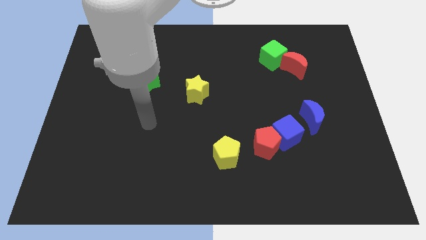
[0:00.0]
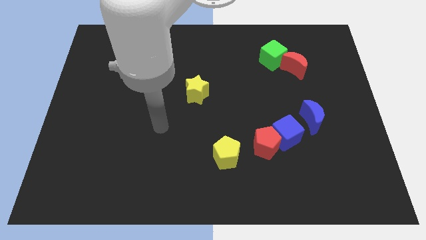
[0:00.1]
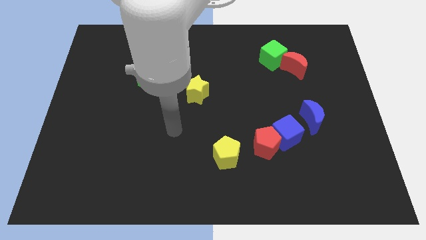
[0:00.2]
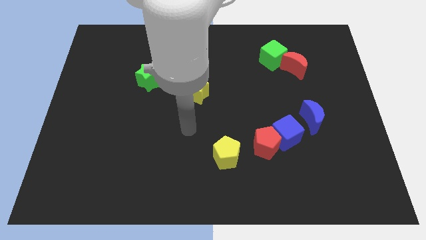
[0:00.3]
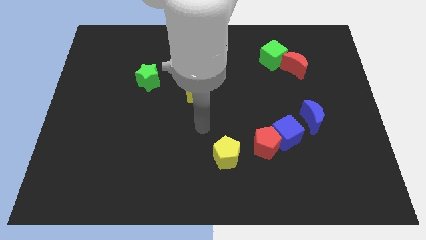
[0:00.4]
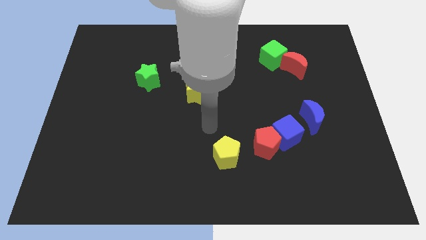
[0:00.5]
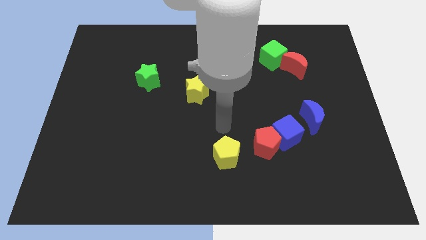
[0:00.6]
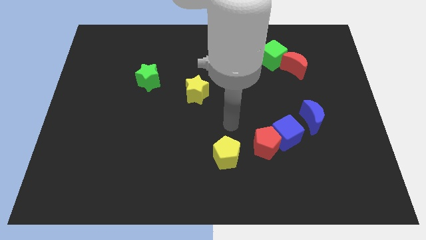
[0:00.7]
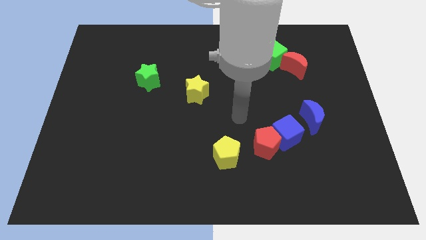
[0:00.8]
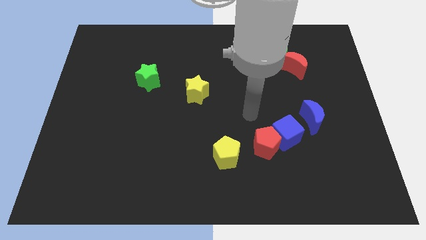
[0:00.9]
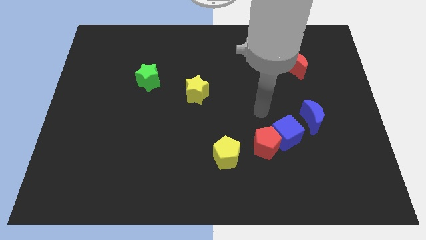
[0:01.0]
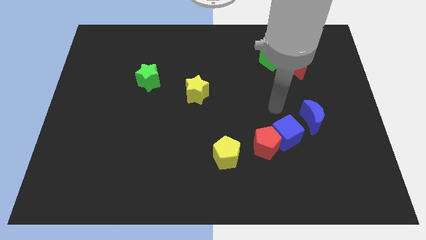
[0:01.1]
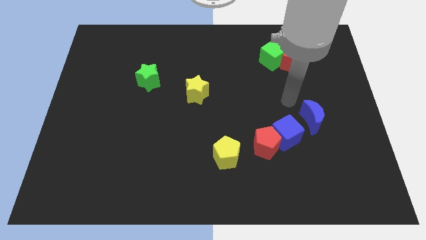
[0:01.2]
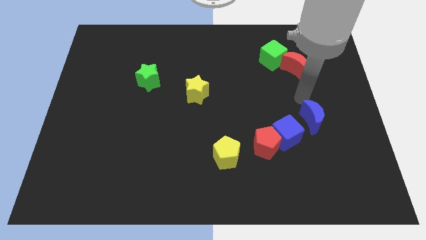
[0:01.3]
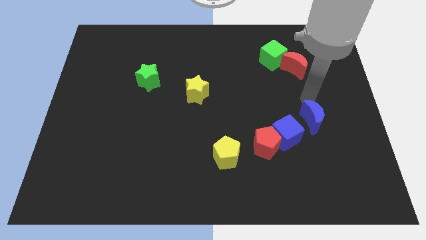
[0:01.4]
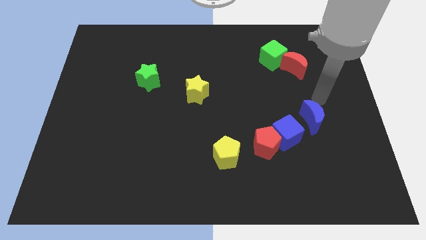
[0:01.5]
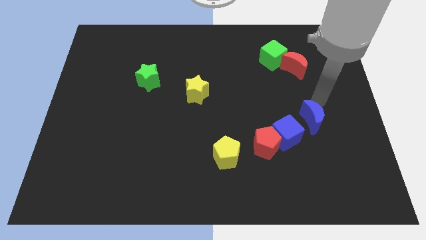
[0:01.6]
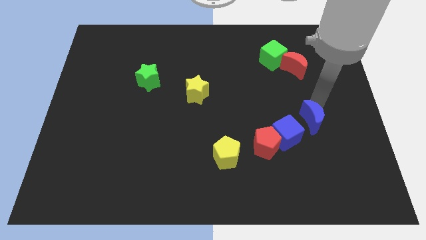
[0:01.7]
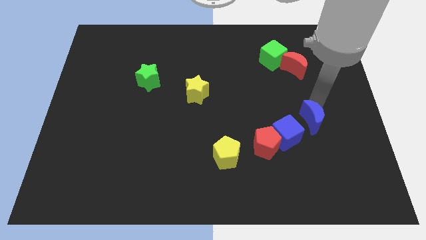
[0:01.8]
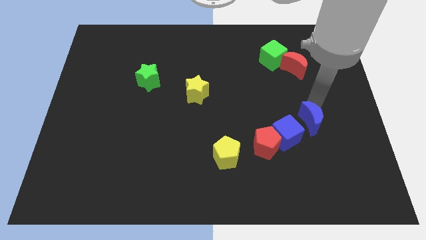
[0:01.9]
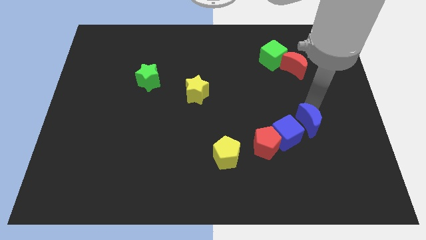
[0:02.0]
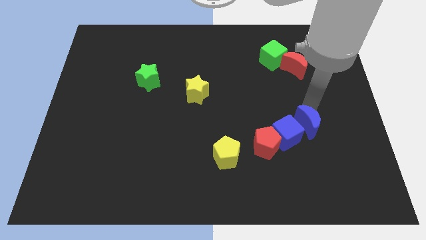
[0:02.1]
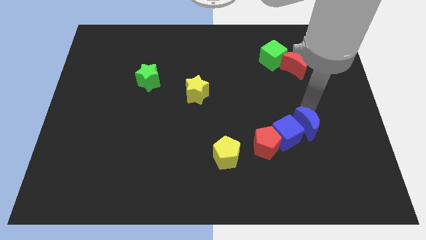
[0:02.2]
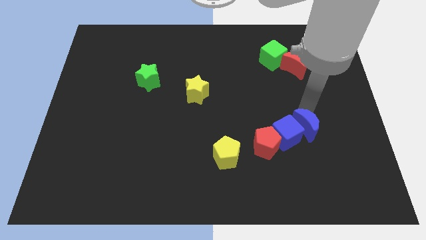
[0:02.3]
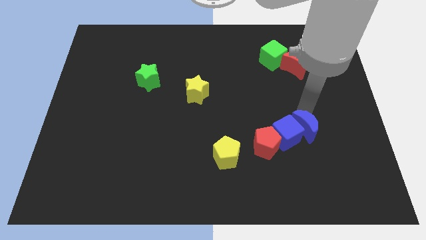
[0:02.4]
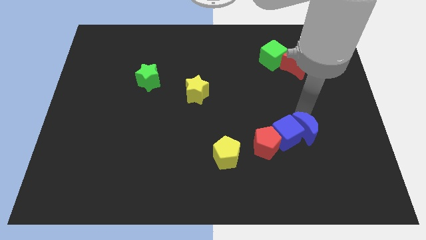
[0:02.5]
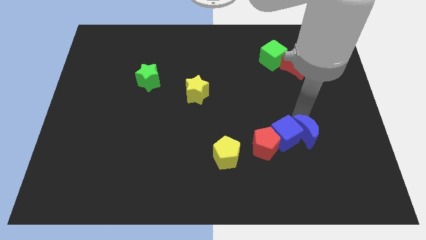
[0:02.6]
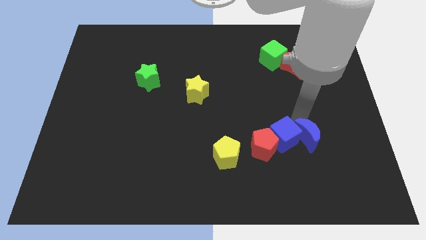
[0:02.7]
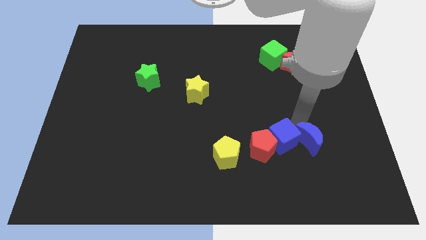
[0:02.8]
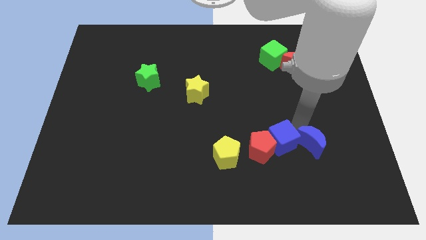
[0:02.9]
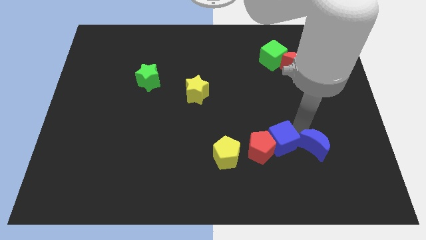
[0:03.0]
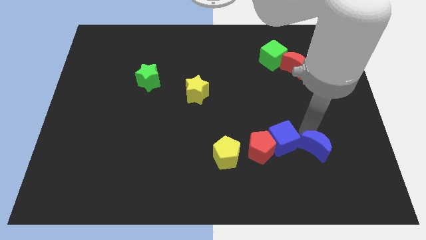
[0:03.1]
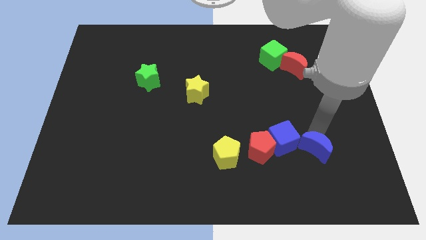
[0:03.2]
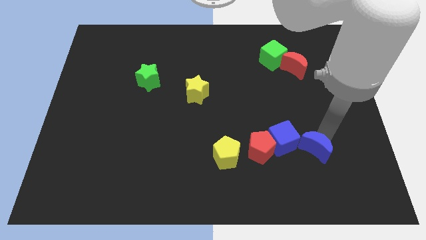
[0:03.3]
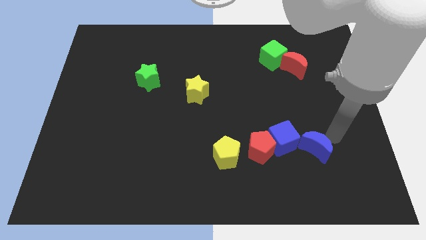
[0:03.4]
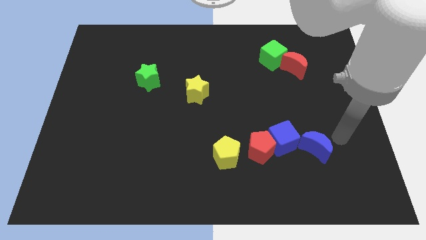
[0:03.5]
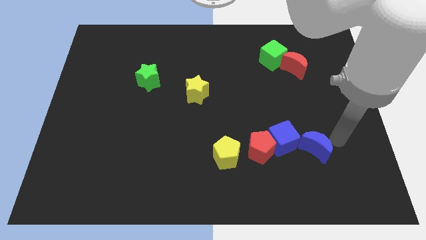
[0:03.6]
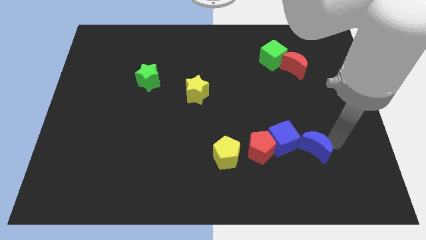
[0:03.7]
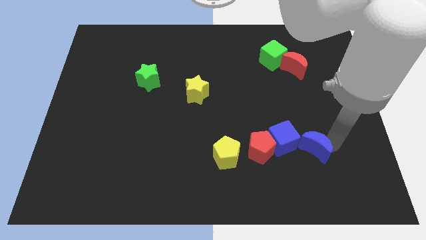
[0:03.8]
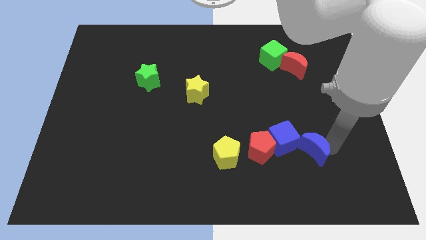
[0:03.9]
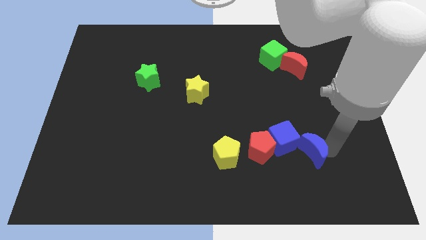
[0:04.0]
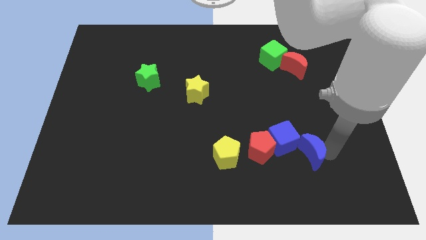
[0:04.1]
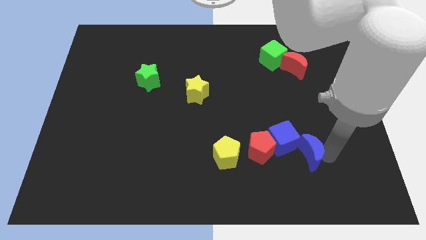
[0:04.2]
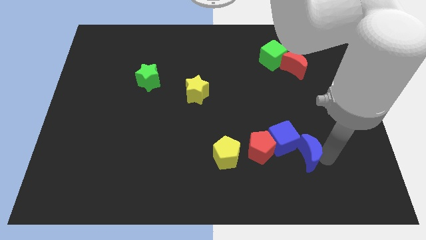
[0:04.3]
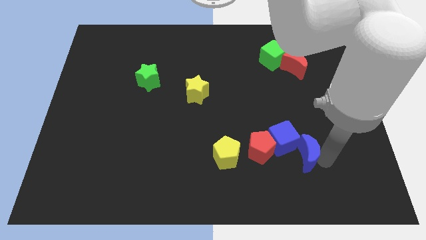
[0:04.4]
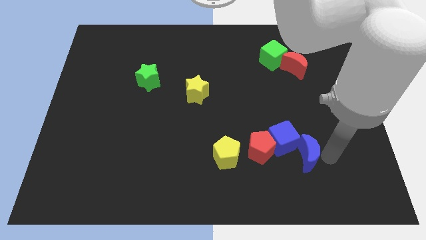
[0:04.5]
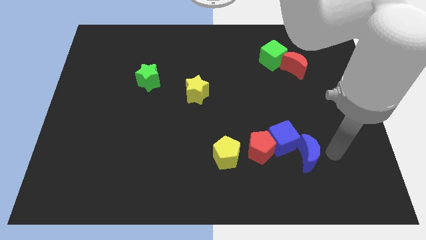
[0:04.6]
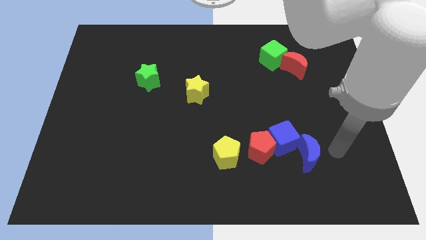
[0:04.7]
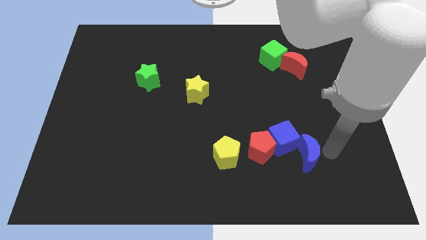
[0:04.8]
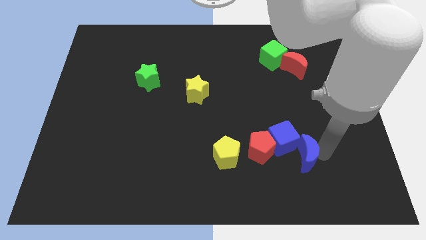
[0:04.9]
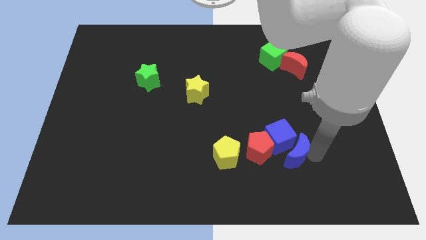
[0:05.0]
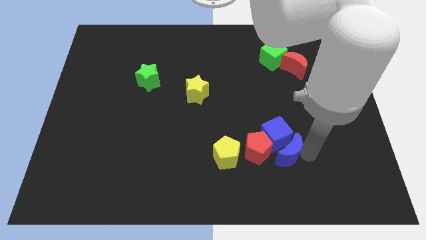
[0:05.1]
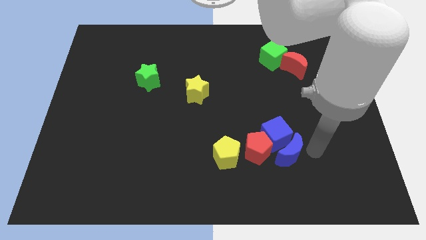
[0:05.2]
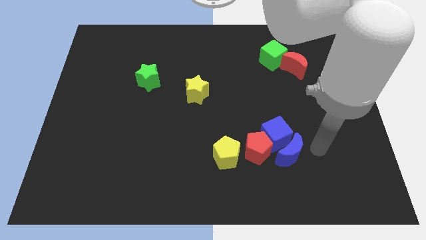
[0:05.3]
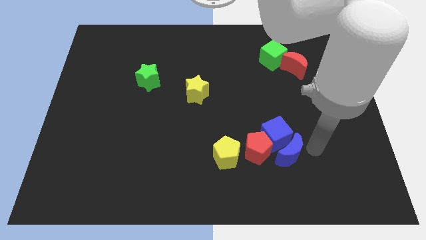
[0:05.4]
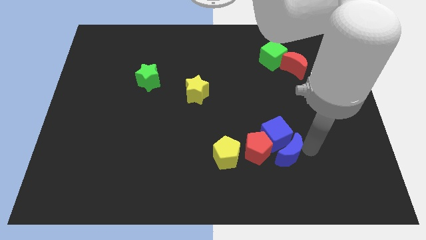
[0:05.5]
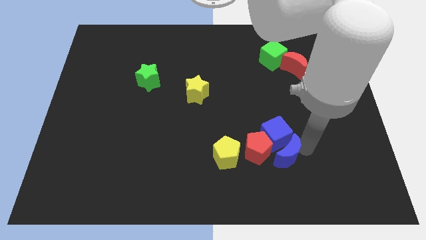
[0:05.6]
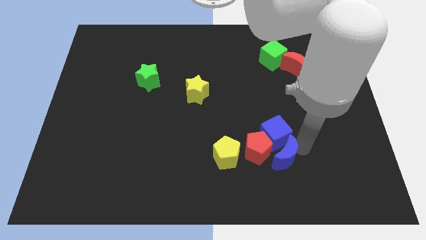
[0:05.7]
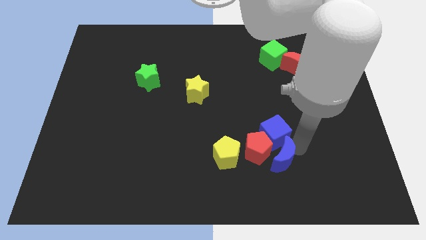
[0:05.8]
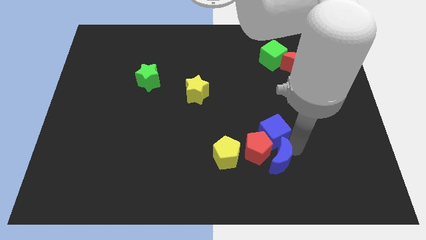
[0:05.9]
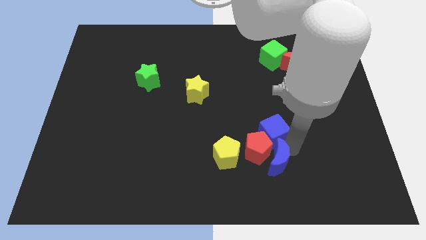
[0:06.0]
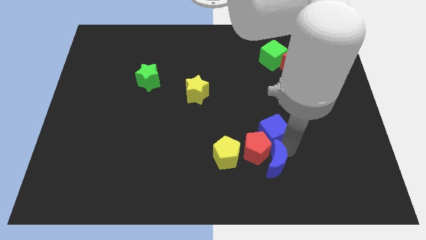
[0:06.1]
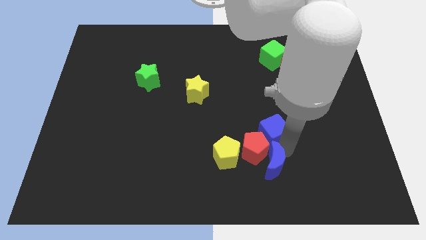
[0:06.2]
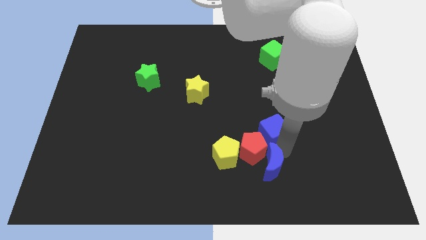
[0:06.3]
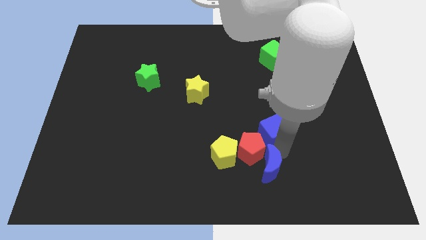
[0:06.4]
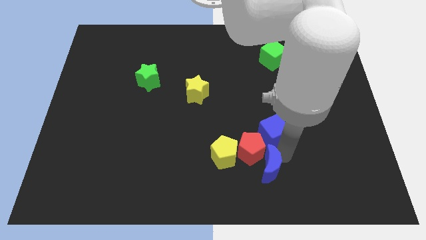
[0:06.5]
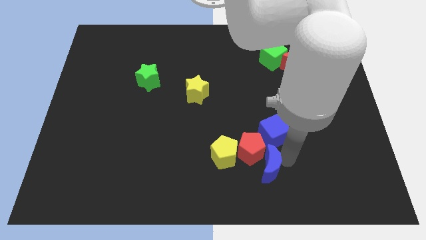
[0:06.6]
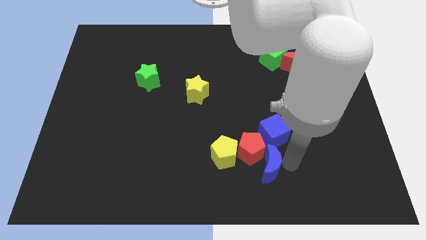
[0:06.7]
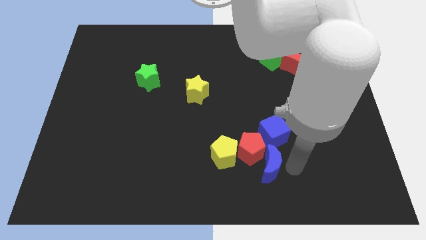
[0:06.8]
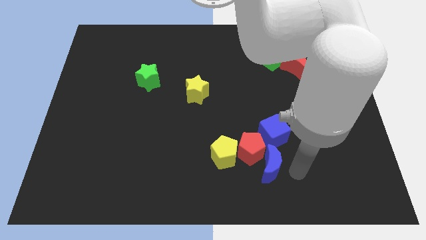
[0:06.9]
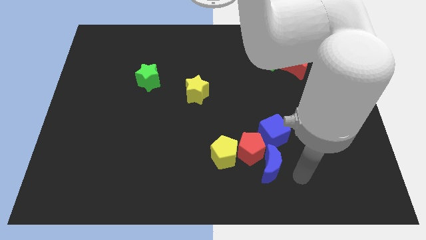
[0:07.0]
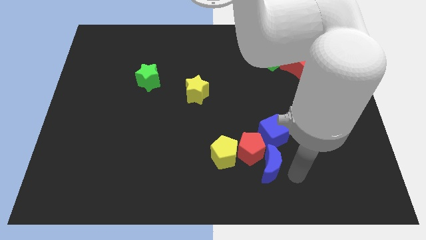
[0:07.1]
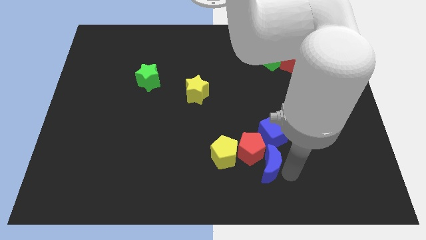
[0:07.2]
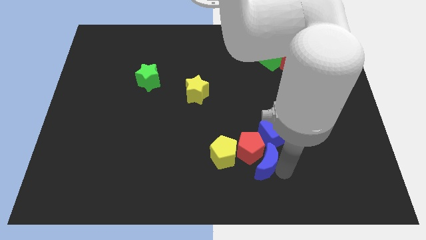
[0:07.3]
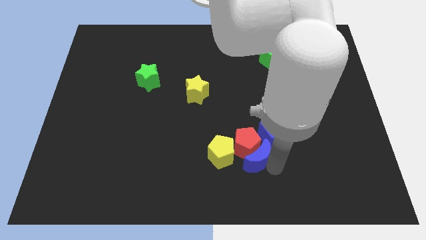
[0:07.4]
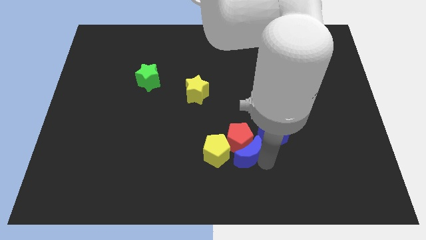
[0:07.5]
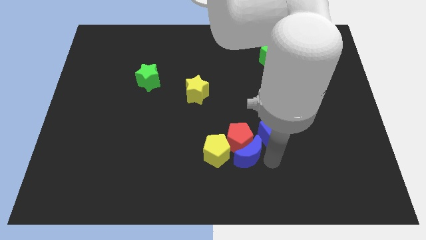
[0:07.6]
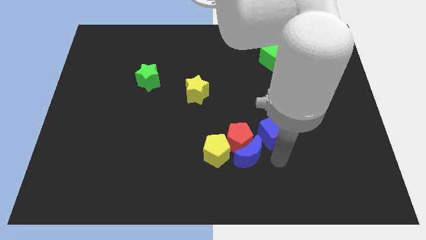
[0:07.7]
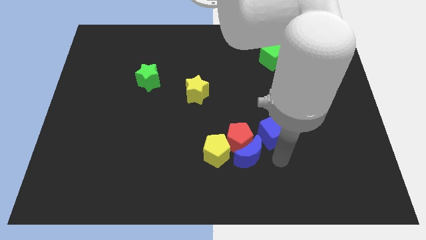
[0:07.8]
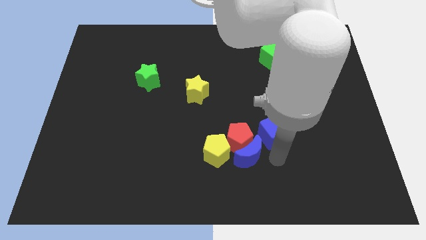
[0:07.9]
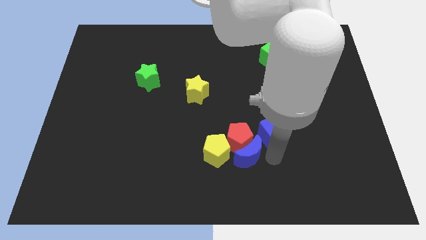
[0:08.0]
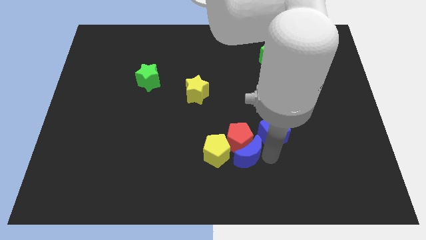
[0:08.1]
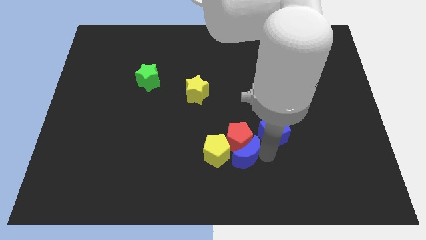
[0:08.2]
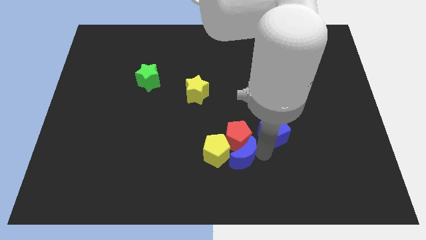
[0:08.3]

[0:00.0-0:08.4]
put the blue moon close to the yellow pentagon
